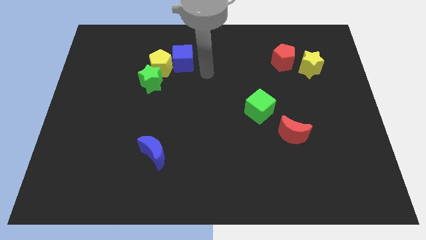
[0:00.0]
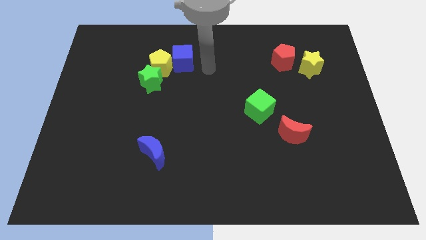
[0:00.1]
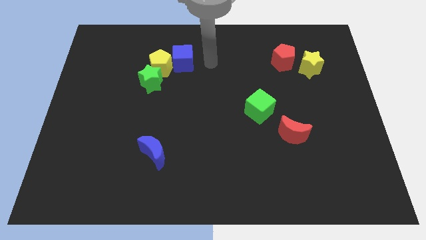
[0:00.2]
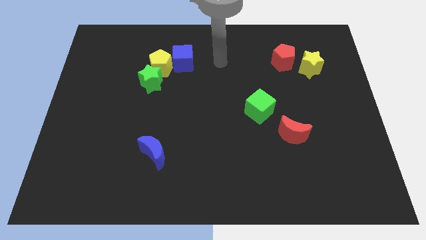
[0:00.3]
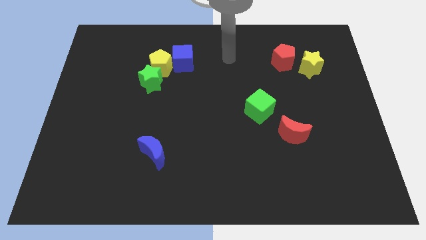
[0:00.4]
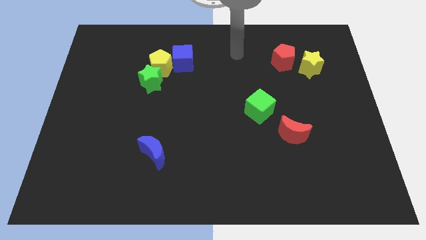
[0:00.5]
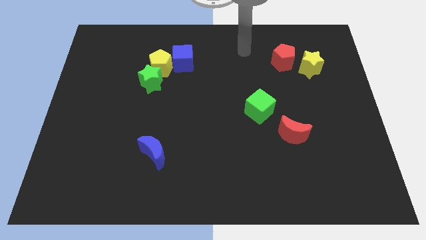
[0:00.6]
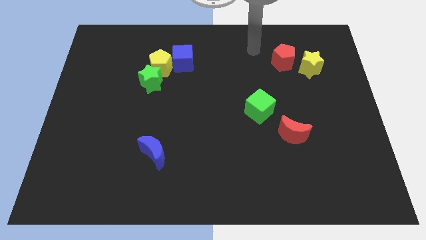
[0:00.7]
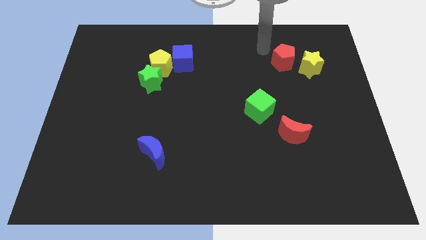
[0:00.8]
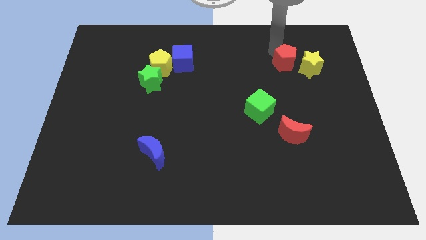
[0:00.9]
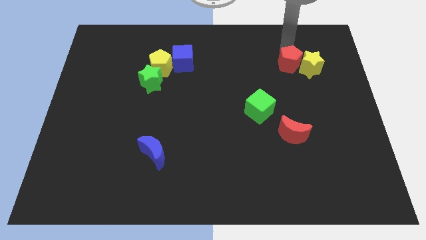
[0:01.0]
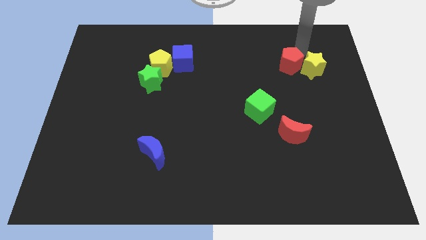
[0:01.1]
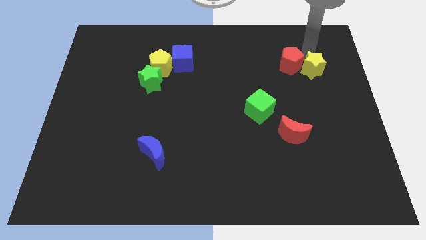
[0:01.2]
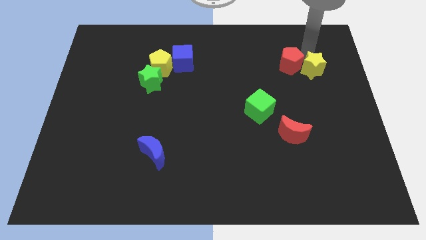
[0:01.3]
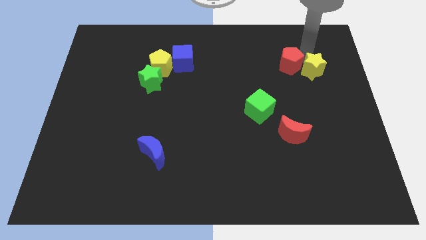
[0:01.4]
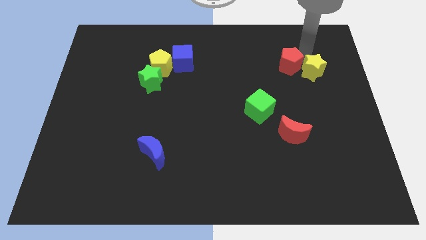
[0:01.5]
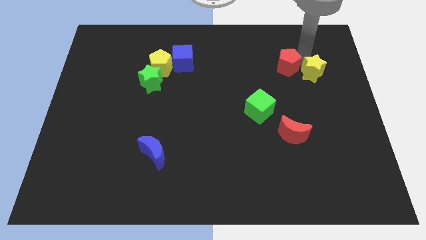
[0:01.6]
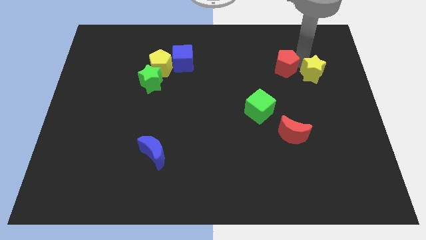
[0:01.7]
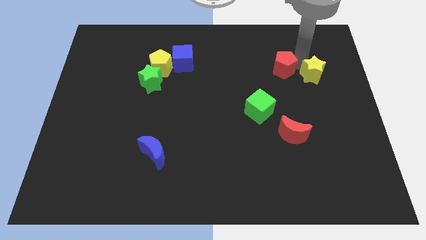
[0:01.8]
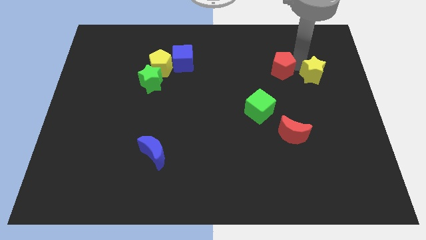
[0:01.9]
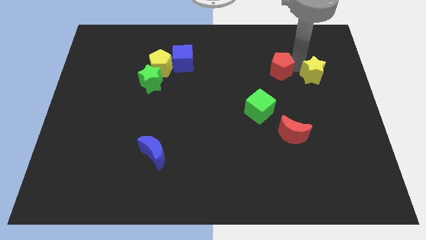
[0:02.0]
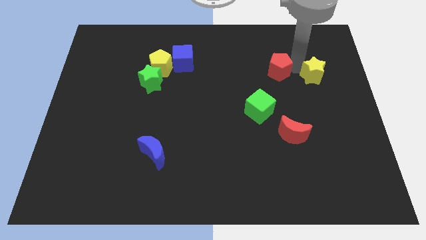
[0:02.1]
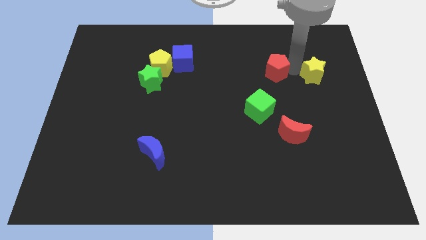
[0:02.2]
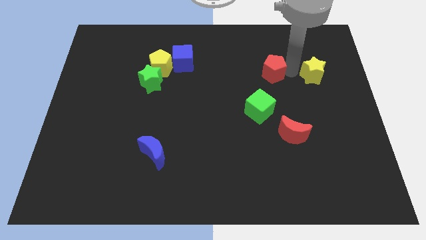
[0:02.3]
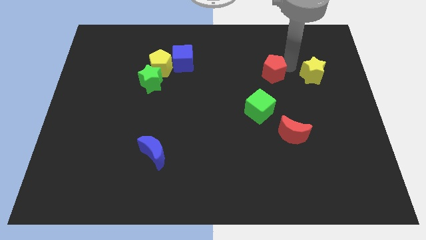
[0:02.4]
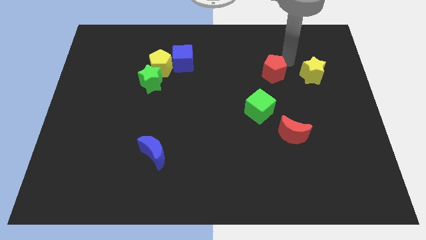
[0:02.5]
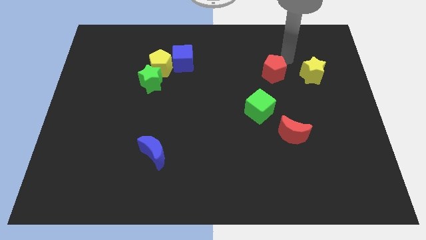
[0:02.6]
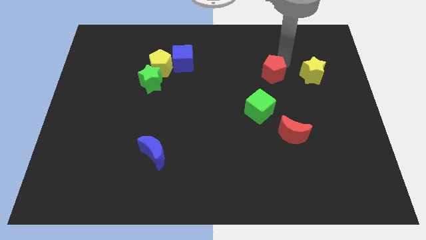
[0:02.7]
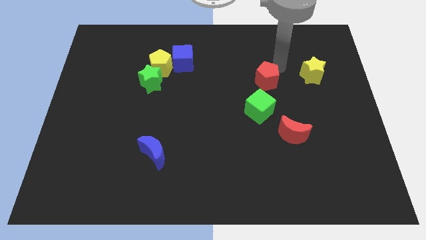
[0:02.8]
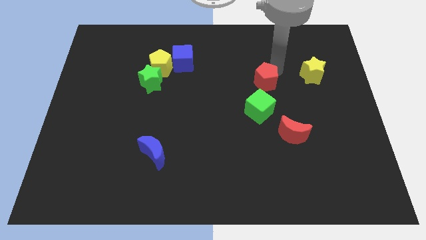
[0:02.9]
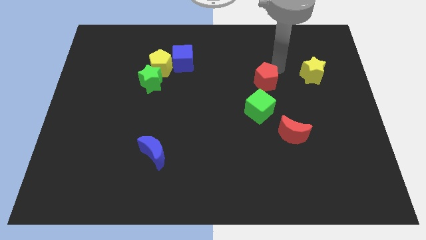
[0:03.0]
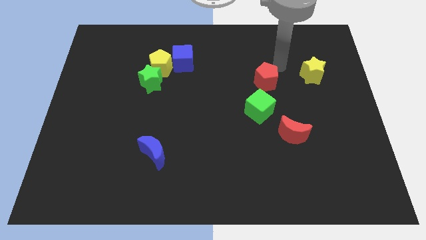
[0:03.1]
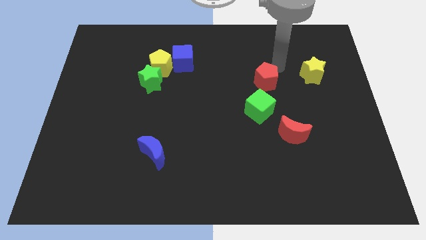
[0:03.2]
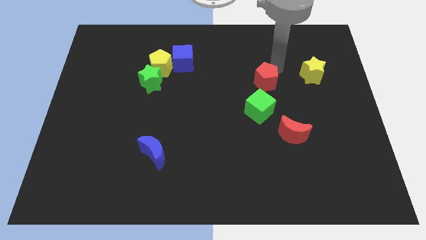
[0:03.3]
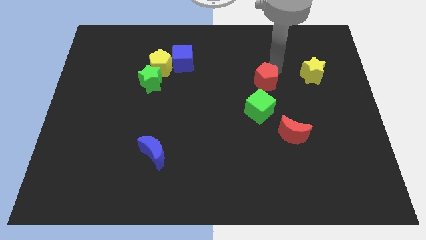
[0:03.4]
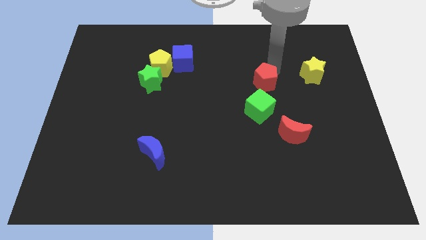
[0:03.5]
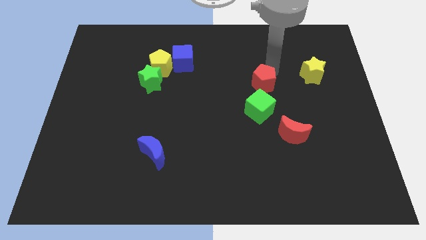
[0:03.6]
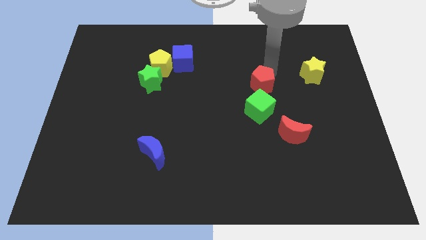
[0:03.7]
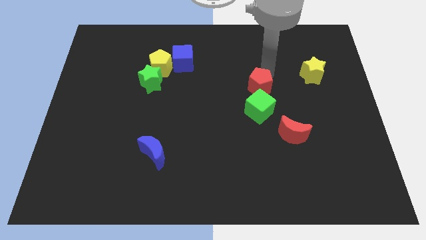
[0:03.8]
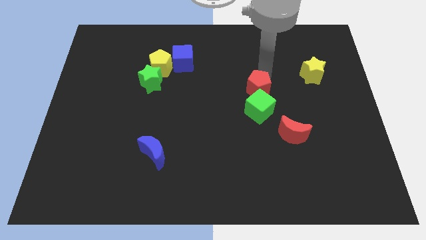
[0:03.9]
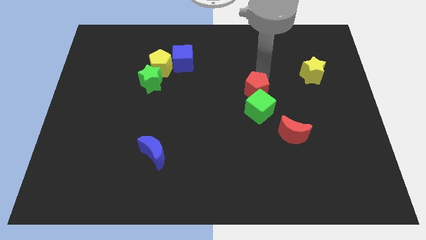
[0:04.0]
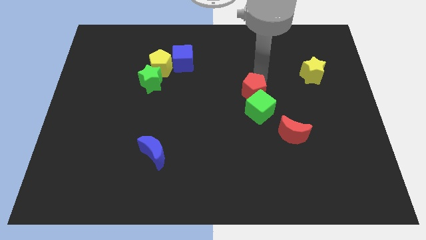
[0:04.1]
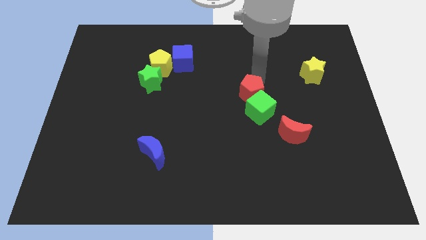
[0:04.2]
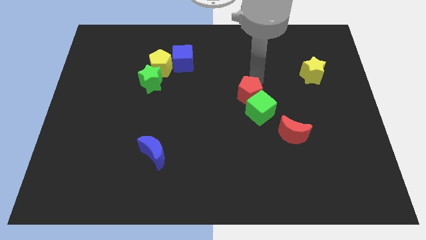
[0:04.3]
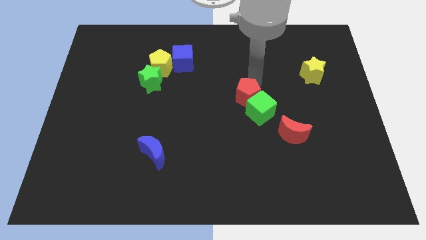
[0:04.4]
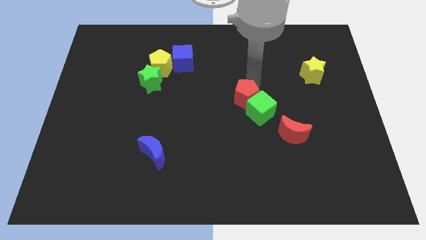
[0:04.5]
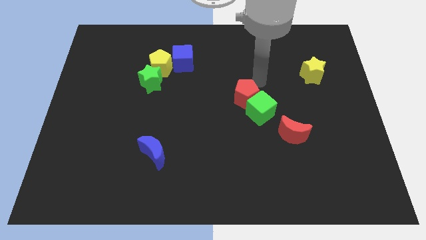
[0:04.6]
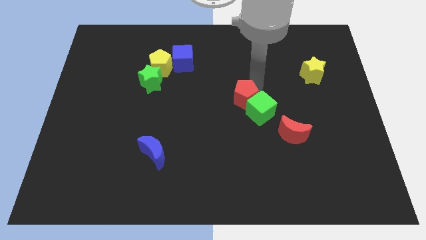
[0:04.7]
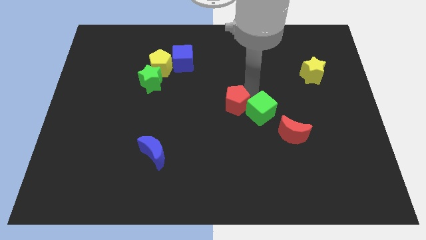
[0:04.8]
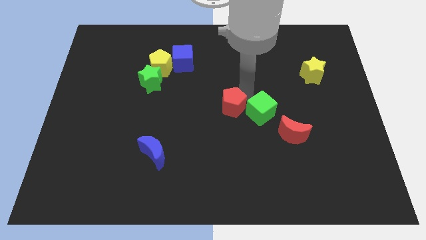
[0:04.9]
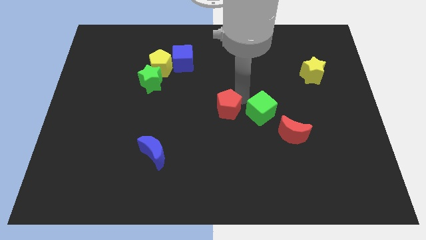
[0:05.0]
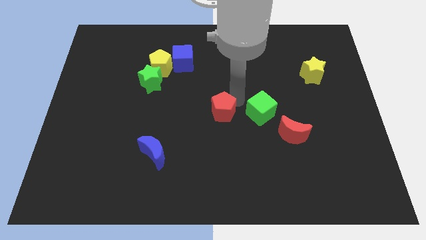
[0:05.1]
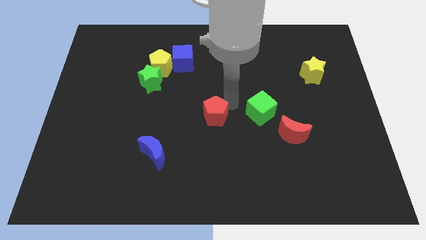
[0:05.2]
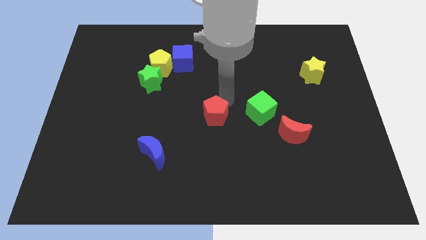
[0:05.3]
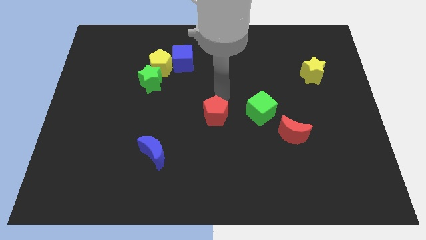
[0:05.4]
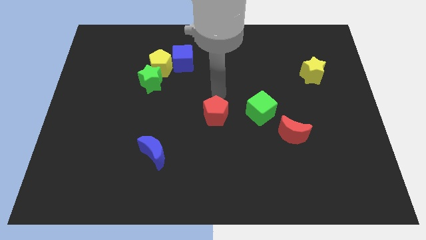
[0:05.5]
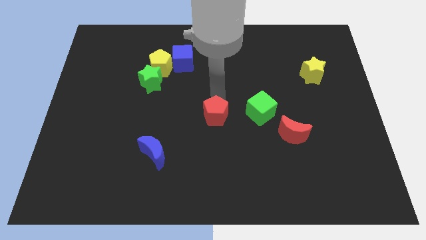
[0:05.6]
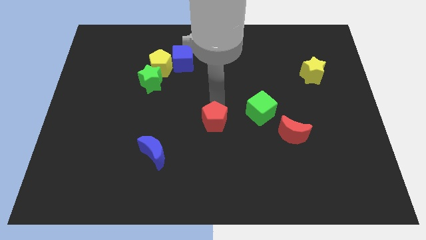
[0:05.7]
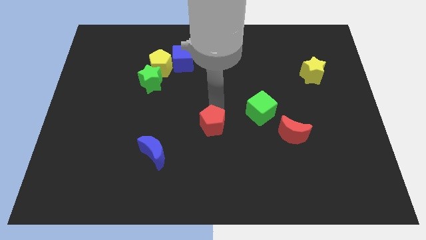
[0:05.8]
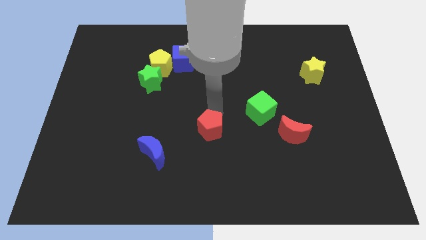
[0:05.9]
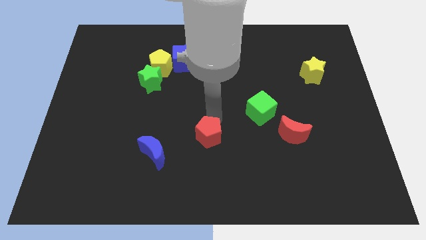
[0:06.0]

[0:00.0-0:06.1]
slide the red pentagon to the right of the blue moon

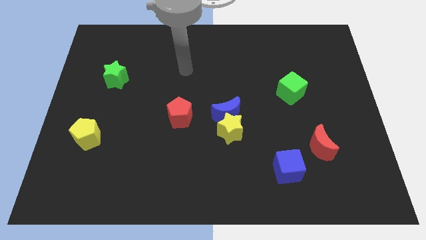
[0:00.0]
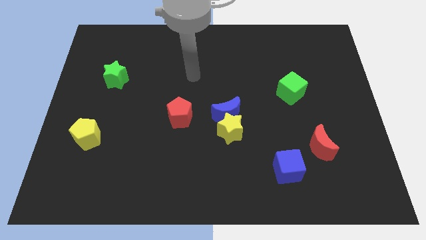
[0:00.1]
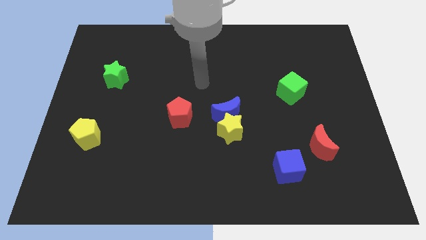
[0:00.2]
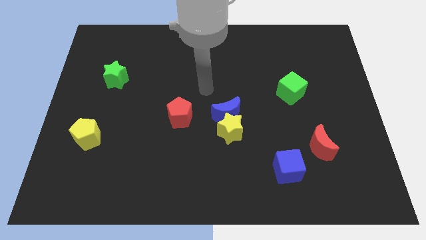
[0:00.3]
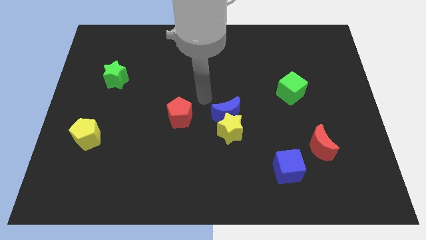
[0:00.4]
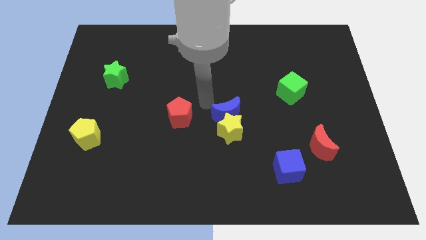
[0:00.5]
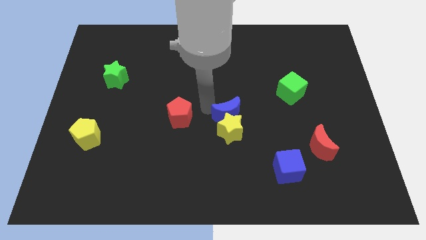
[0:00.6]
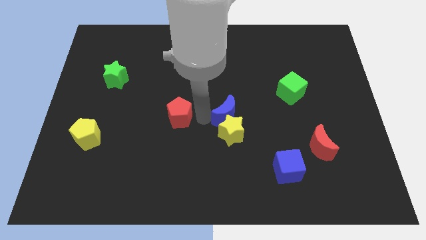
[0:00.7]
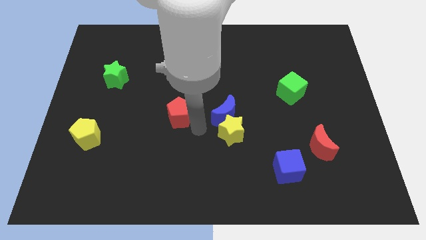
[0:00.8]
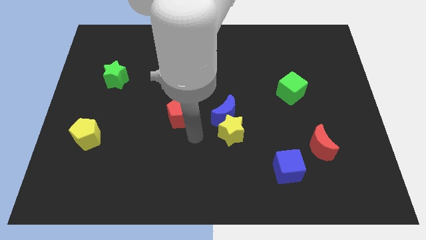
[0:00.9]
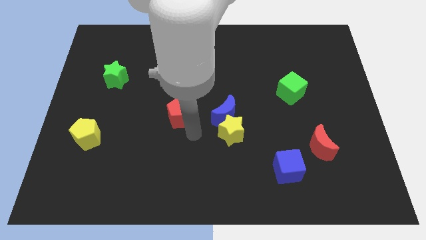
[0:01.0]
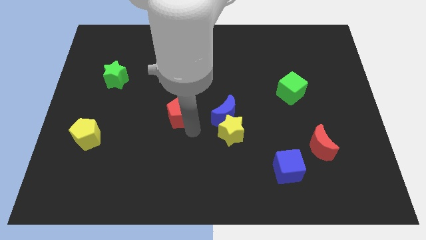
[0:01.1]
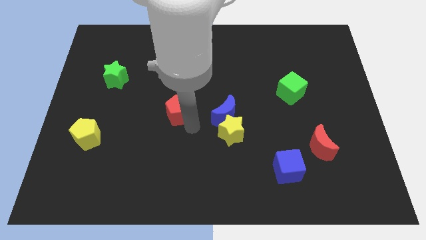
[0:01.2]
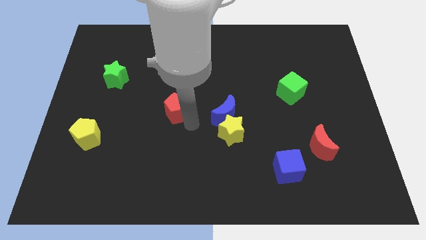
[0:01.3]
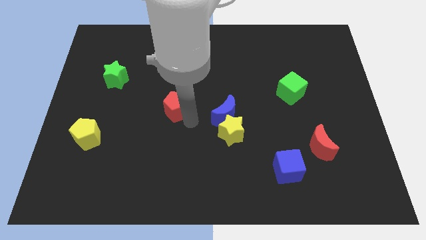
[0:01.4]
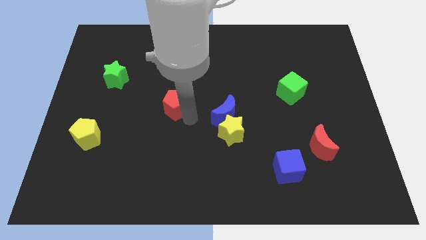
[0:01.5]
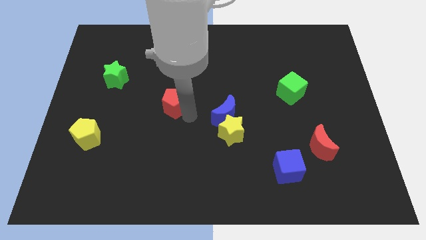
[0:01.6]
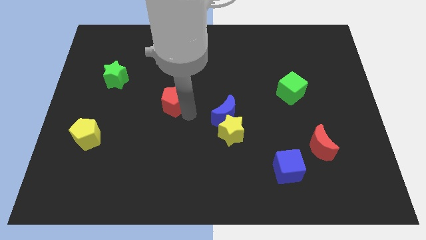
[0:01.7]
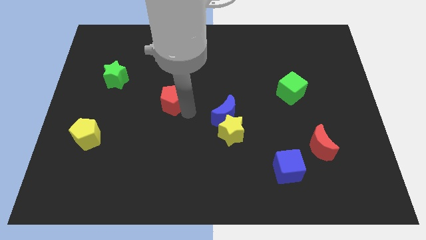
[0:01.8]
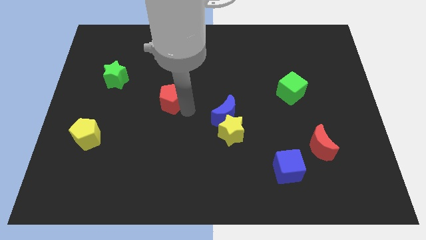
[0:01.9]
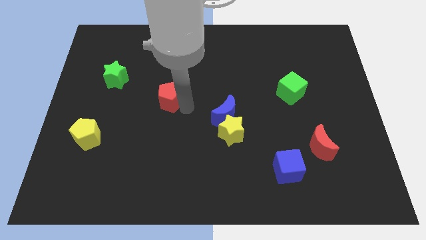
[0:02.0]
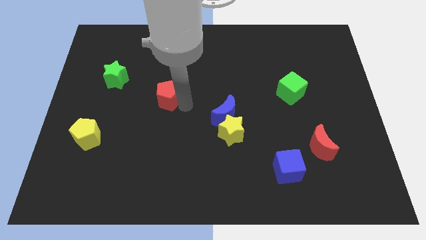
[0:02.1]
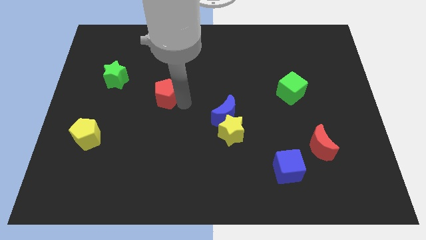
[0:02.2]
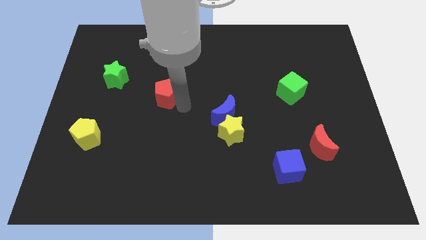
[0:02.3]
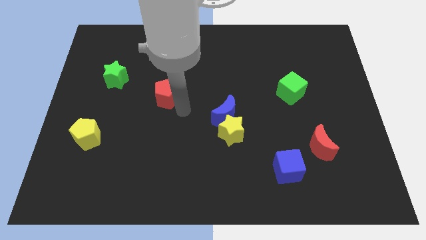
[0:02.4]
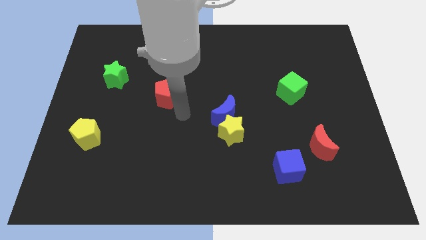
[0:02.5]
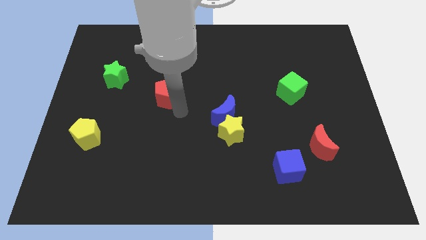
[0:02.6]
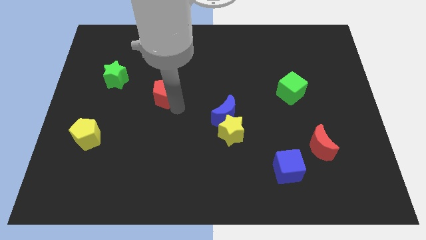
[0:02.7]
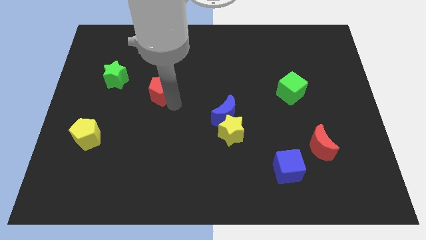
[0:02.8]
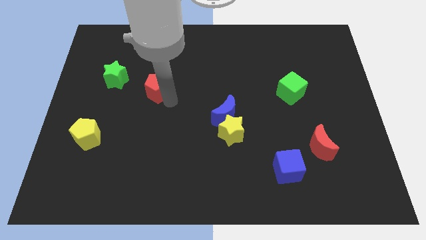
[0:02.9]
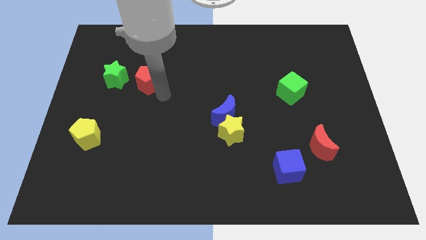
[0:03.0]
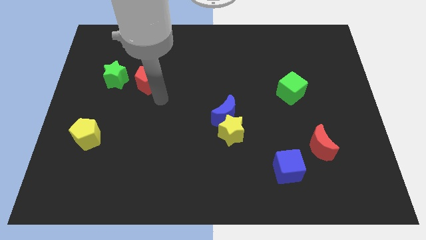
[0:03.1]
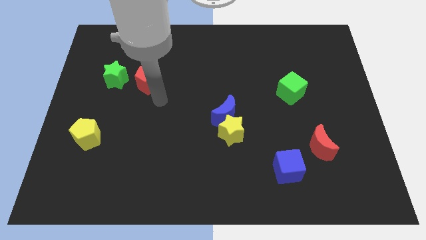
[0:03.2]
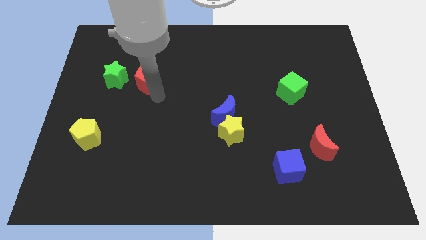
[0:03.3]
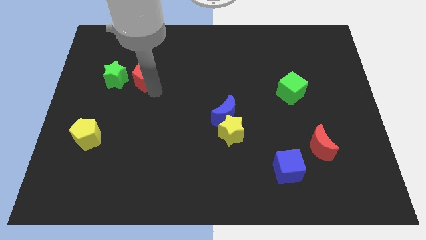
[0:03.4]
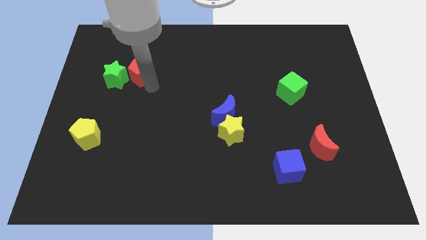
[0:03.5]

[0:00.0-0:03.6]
slide the red pentagon to the top right side of the green star
